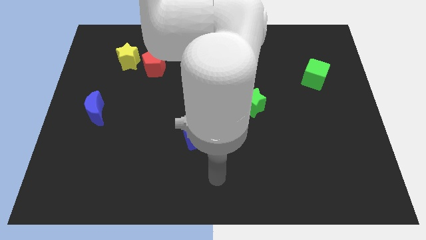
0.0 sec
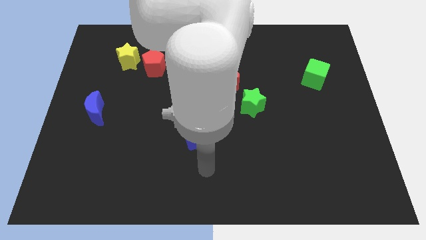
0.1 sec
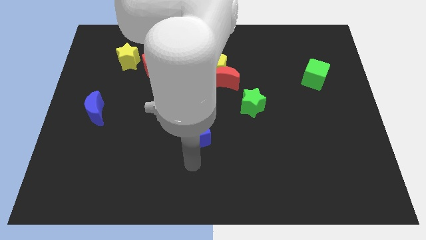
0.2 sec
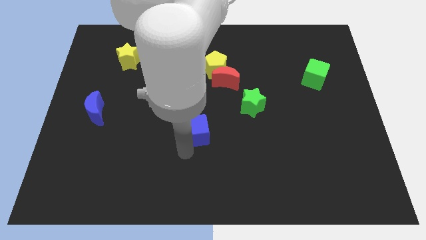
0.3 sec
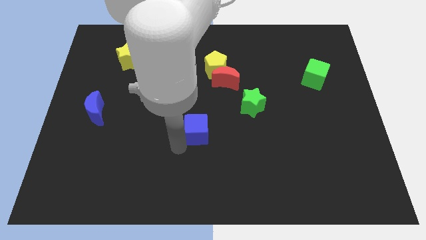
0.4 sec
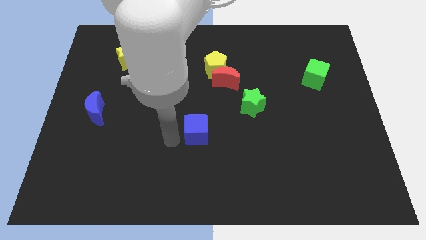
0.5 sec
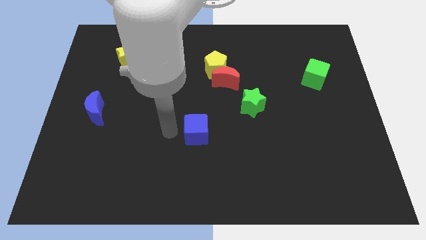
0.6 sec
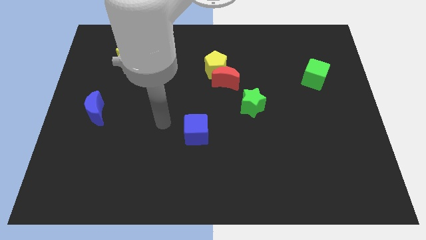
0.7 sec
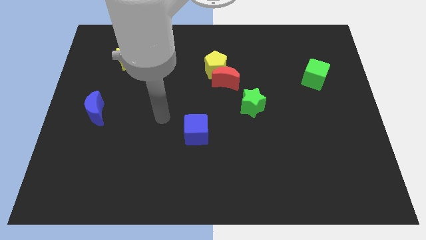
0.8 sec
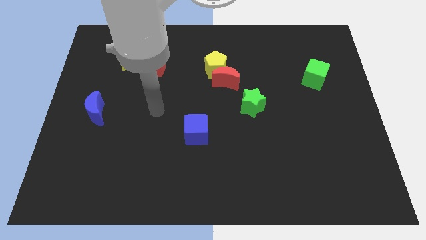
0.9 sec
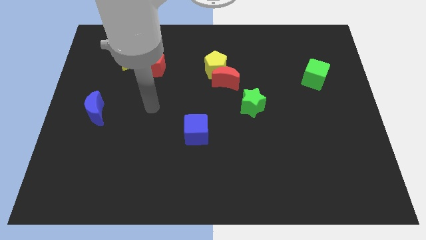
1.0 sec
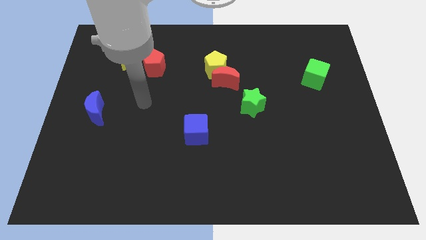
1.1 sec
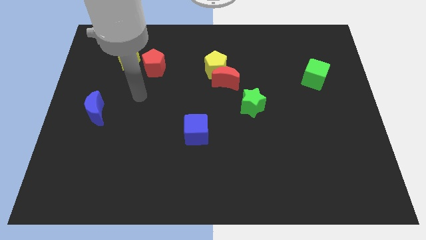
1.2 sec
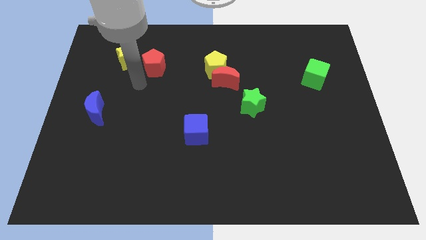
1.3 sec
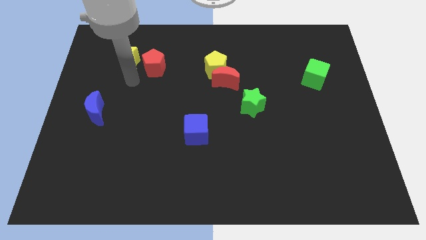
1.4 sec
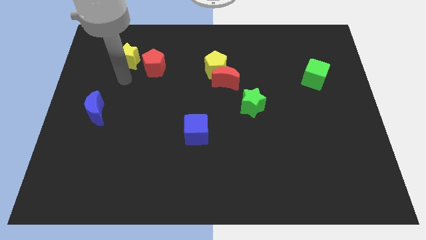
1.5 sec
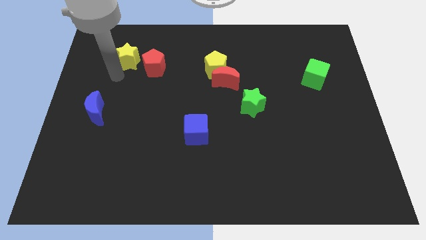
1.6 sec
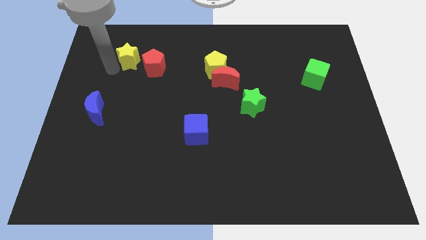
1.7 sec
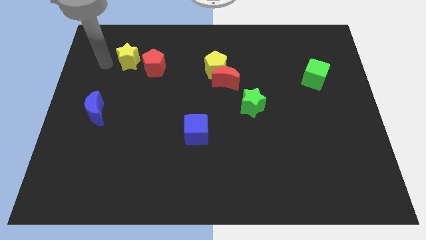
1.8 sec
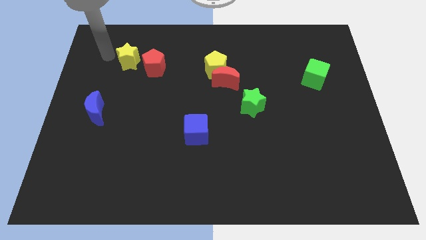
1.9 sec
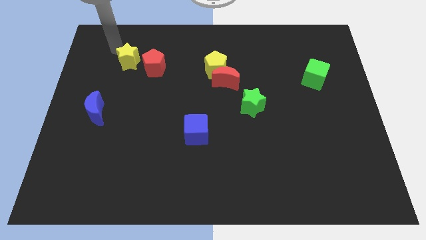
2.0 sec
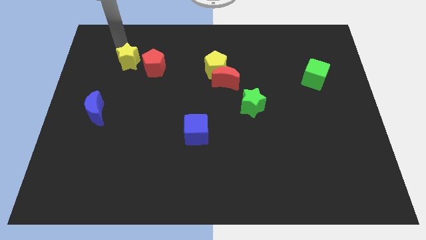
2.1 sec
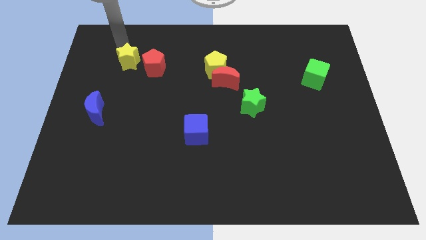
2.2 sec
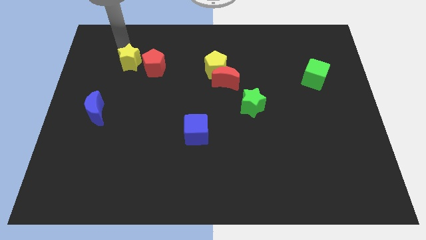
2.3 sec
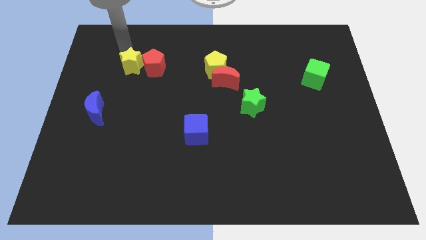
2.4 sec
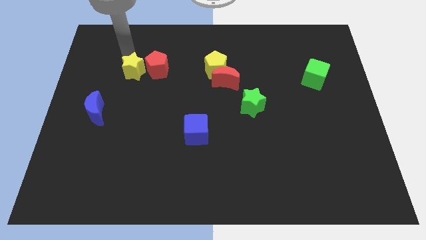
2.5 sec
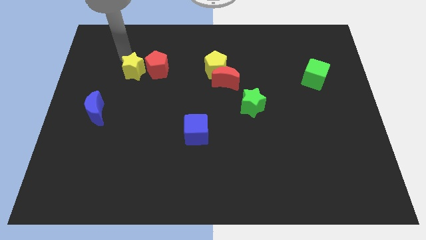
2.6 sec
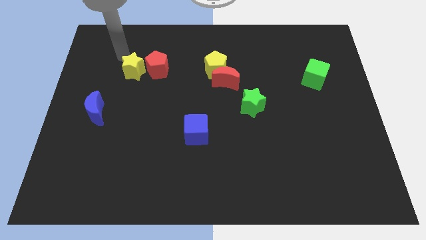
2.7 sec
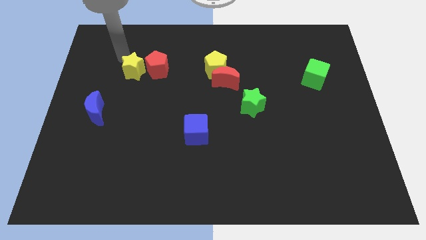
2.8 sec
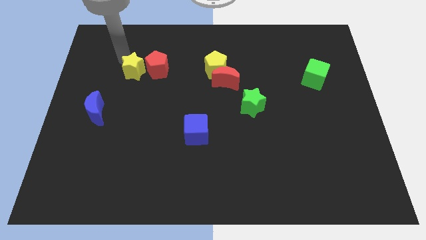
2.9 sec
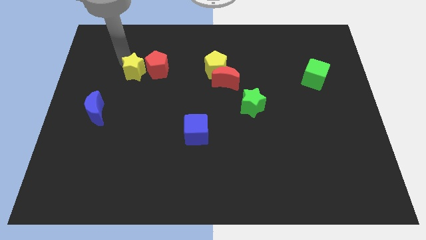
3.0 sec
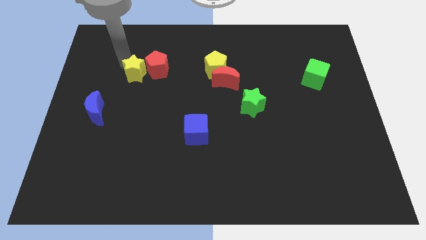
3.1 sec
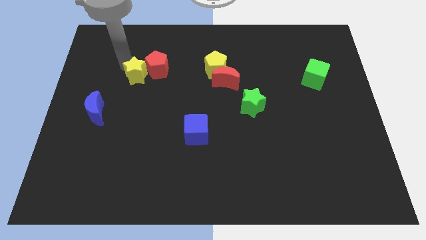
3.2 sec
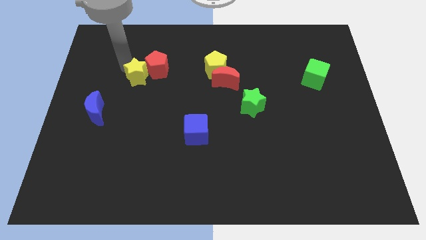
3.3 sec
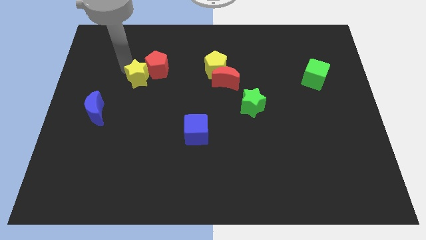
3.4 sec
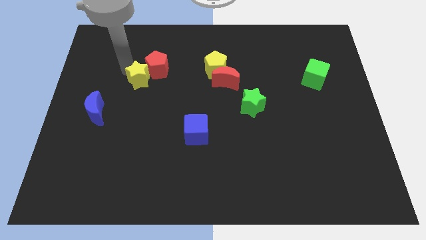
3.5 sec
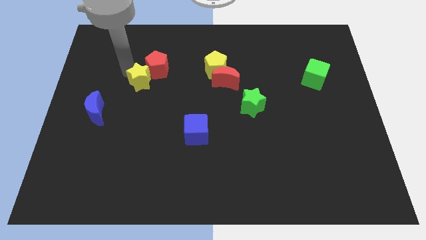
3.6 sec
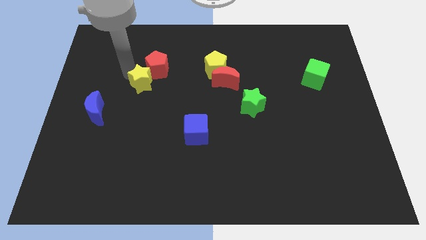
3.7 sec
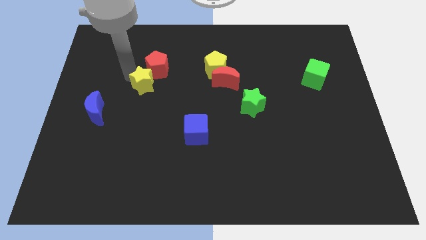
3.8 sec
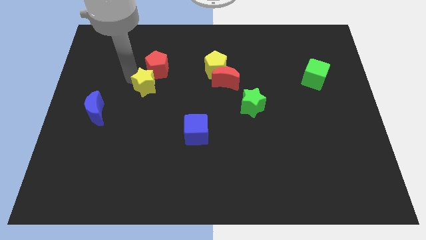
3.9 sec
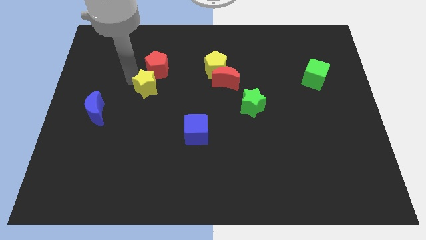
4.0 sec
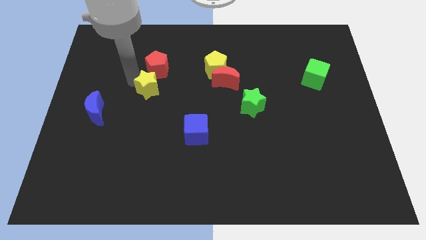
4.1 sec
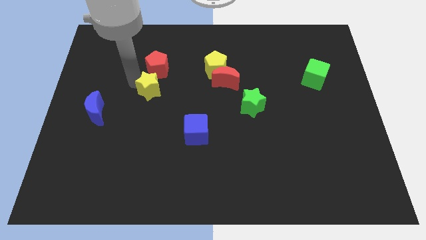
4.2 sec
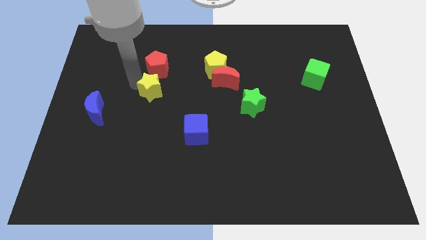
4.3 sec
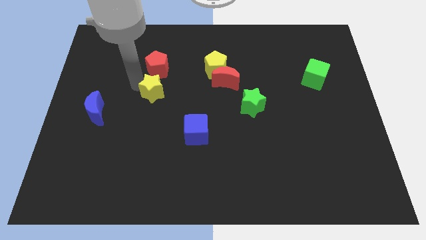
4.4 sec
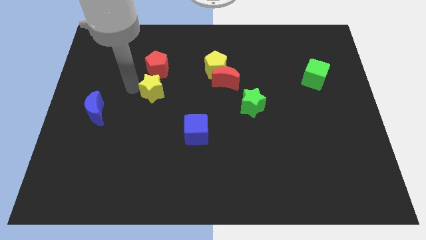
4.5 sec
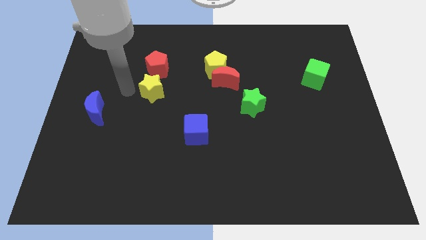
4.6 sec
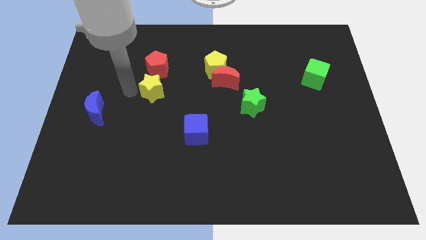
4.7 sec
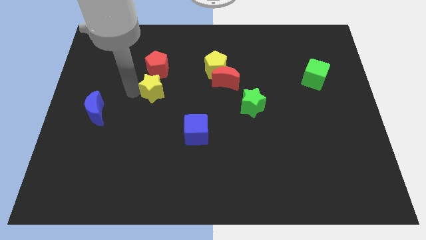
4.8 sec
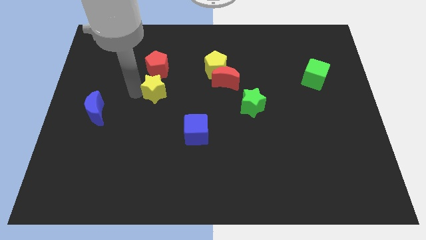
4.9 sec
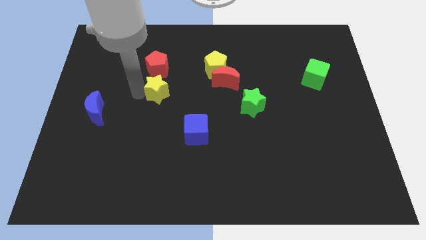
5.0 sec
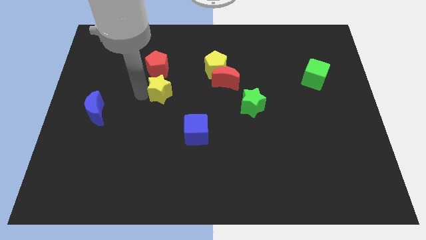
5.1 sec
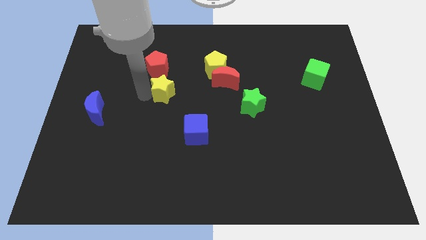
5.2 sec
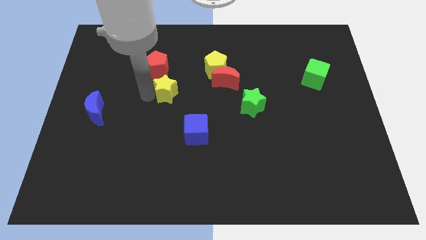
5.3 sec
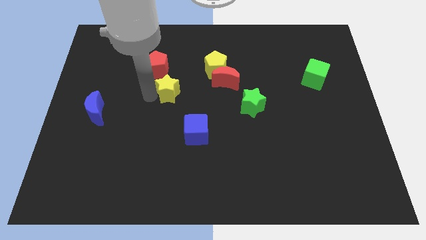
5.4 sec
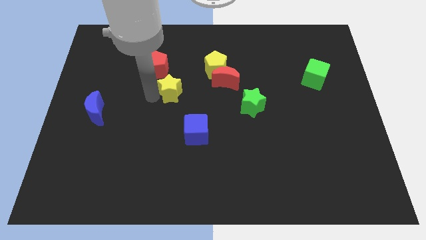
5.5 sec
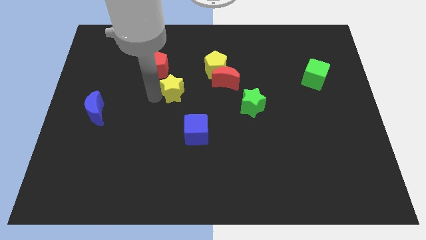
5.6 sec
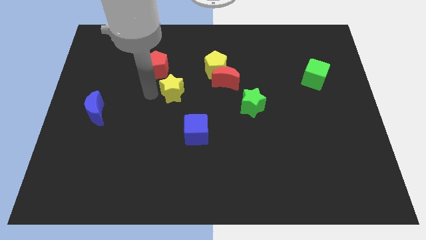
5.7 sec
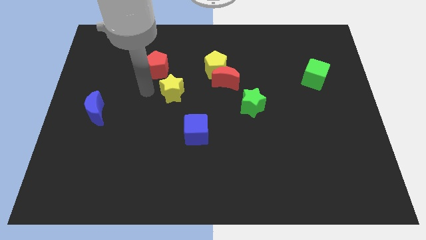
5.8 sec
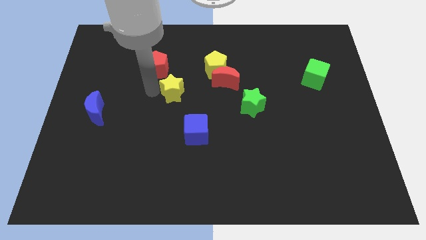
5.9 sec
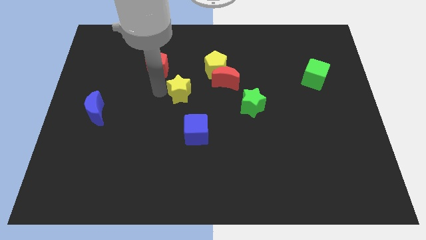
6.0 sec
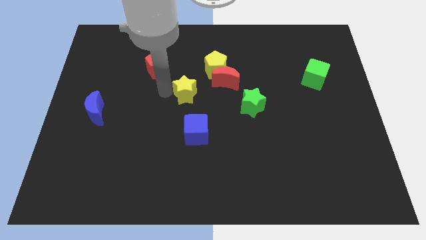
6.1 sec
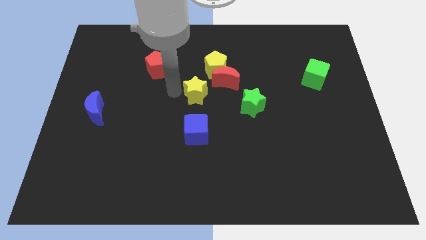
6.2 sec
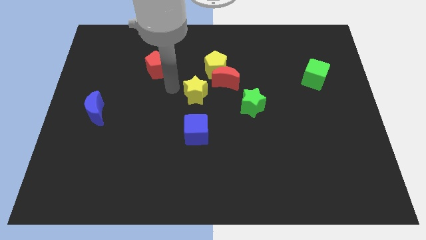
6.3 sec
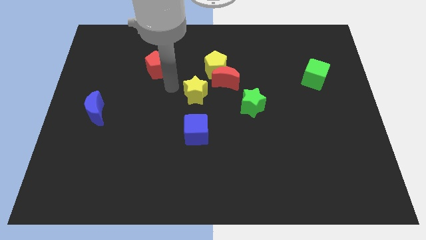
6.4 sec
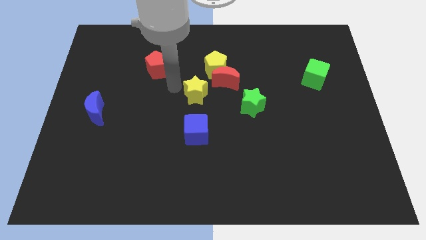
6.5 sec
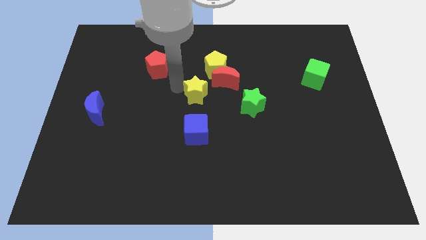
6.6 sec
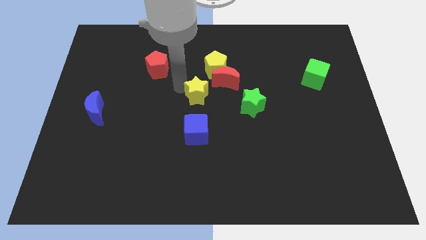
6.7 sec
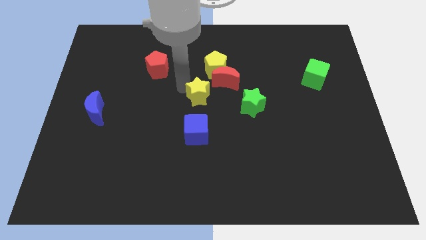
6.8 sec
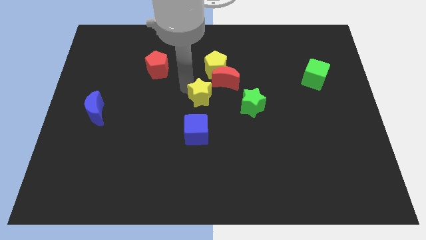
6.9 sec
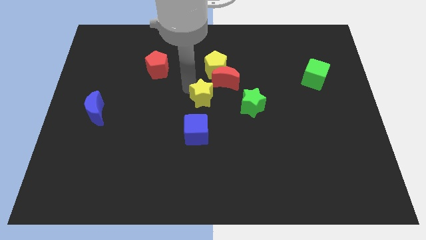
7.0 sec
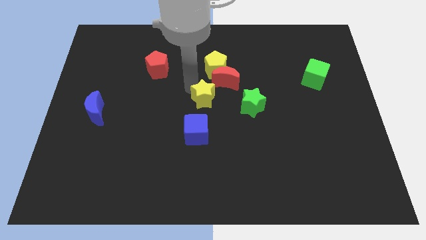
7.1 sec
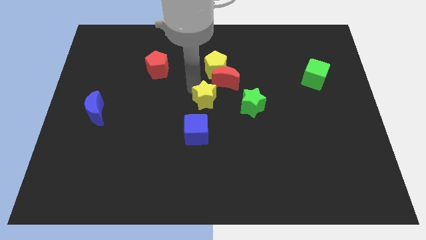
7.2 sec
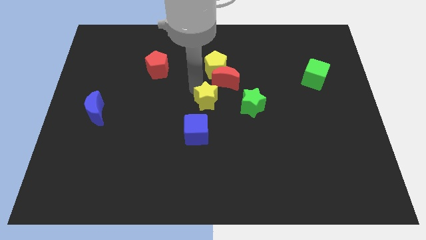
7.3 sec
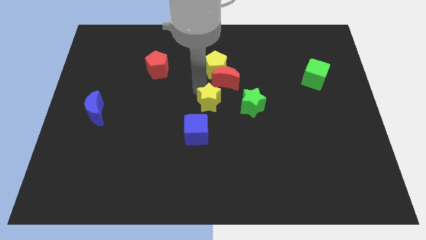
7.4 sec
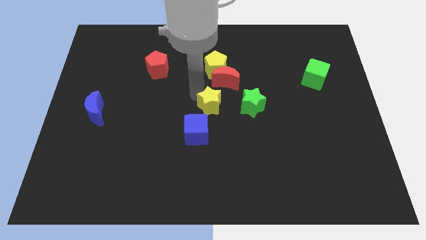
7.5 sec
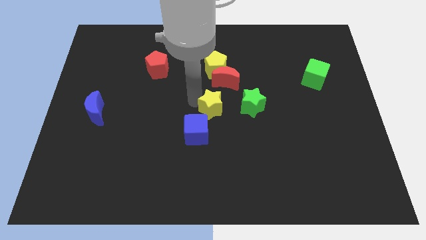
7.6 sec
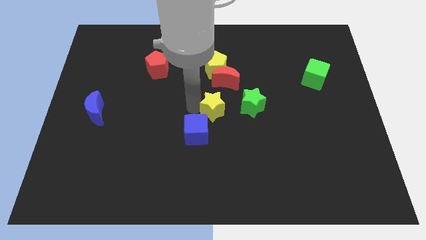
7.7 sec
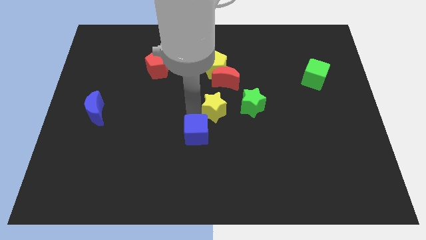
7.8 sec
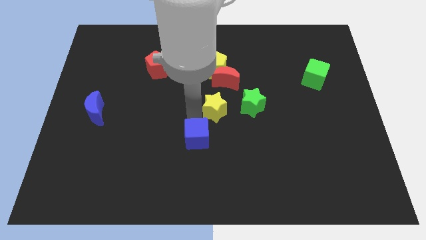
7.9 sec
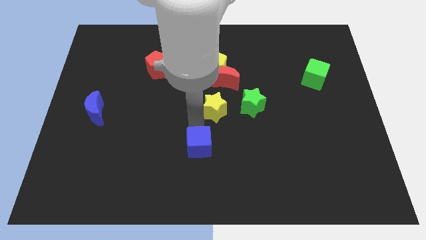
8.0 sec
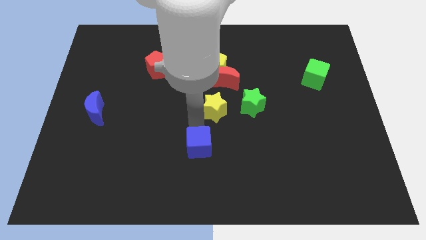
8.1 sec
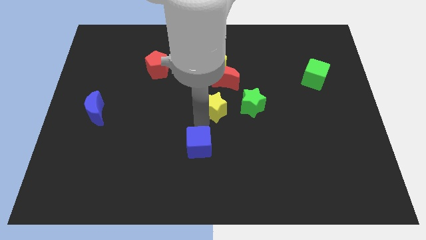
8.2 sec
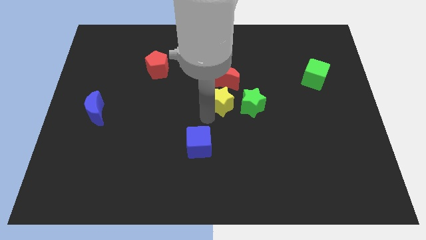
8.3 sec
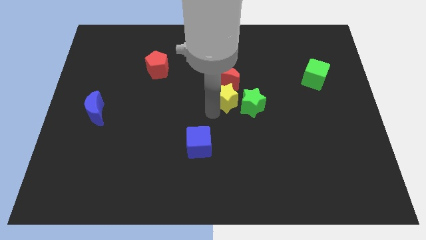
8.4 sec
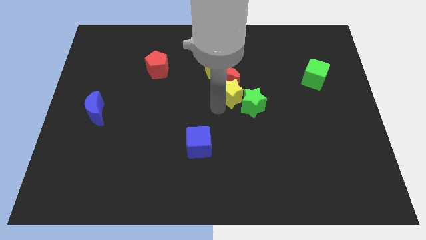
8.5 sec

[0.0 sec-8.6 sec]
put the yellow star diagonally down and to the right of the yellow pentagon
